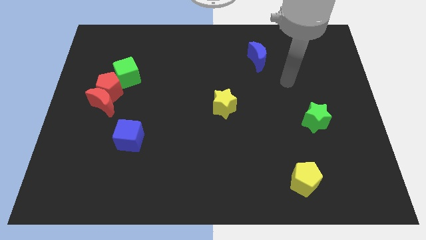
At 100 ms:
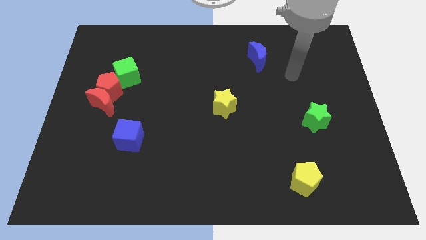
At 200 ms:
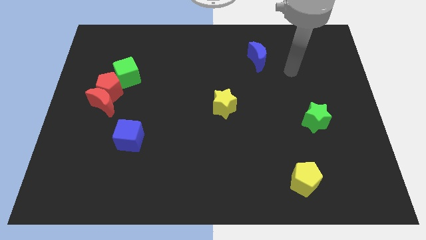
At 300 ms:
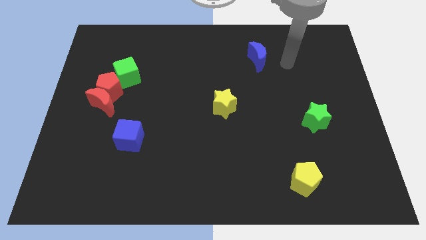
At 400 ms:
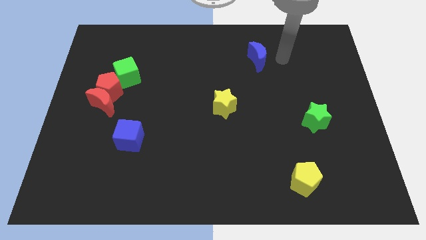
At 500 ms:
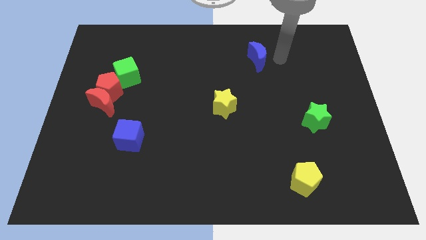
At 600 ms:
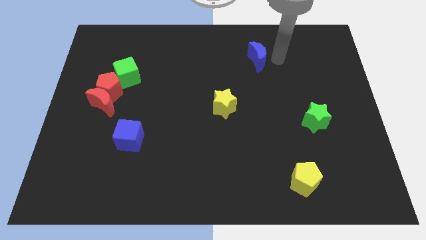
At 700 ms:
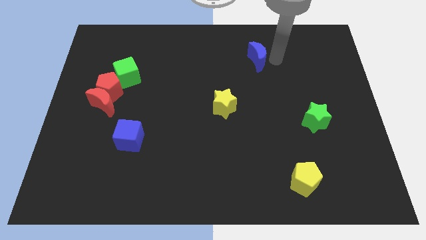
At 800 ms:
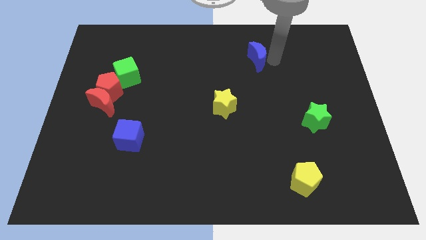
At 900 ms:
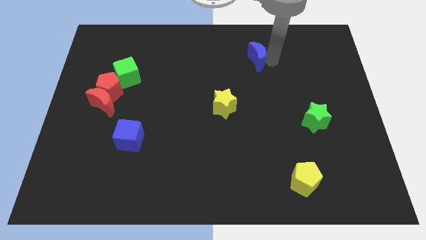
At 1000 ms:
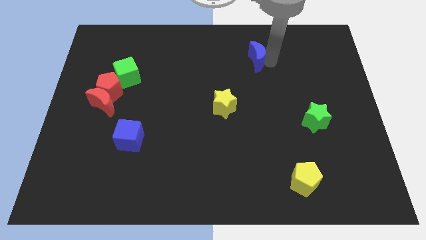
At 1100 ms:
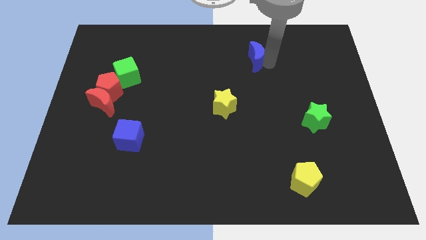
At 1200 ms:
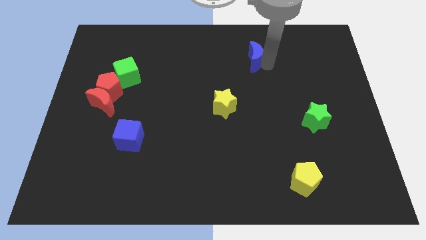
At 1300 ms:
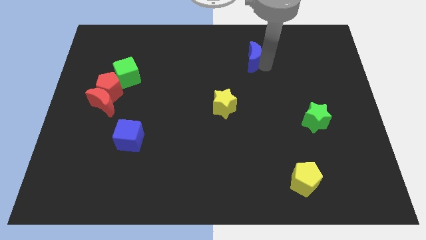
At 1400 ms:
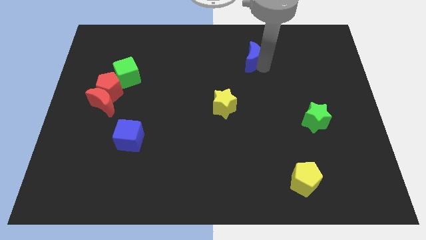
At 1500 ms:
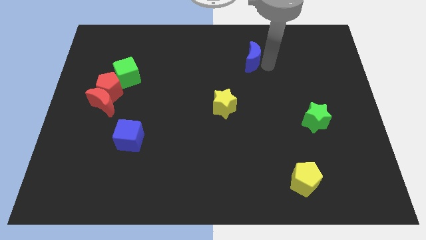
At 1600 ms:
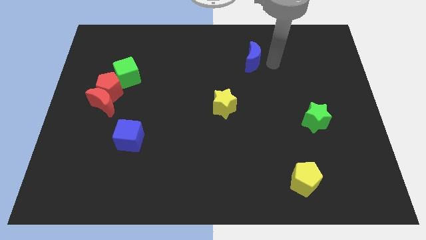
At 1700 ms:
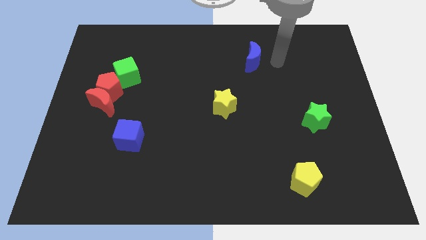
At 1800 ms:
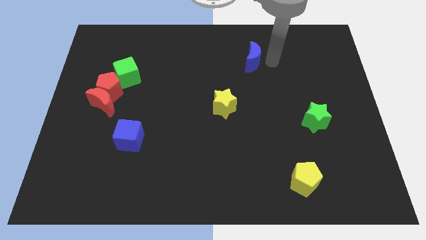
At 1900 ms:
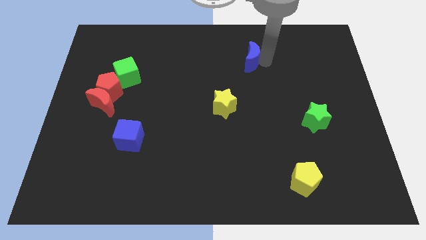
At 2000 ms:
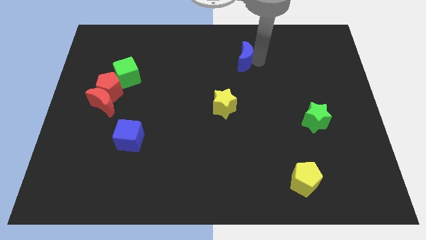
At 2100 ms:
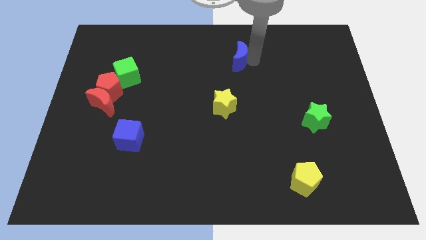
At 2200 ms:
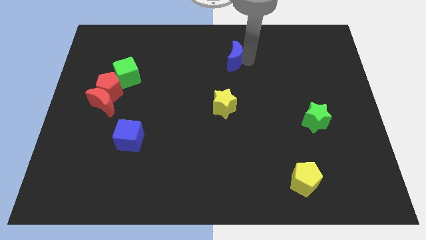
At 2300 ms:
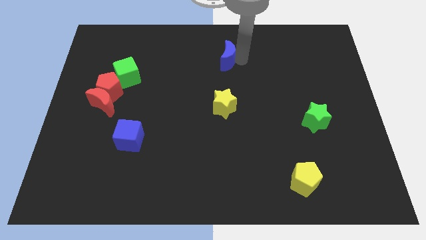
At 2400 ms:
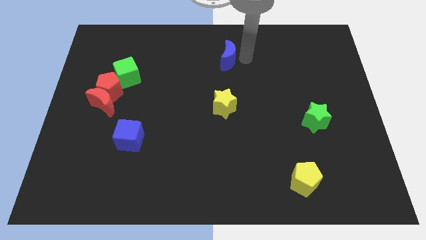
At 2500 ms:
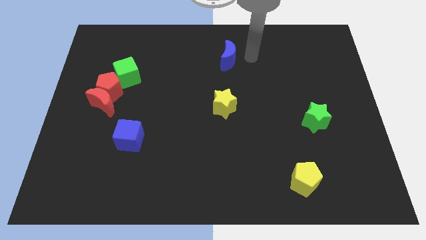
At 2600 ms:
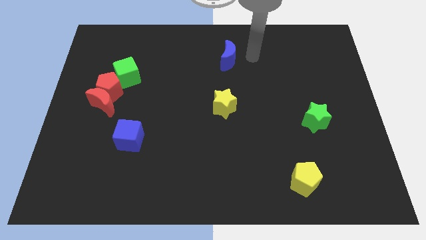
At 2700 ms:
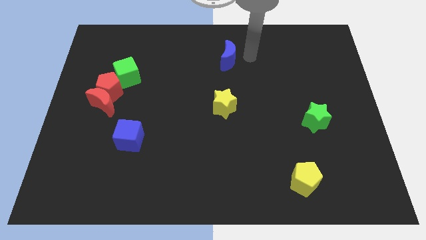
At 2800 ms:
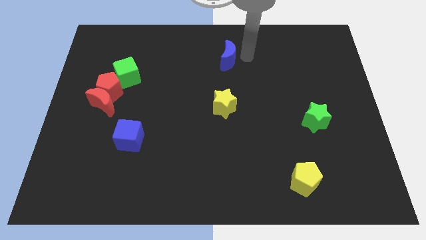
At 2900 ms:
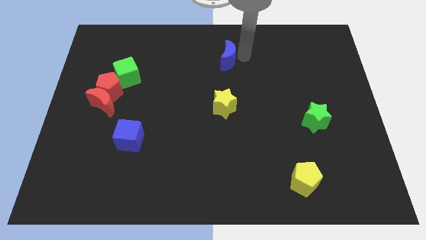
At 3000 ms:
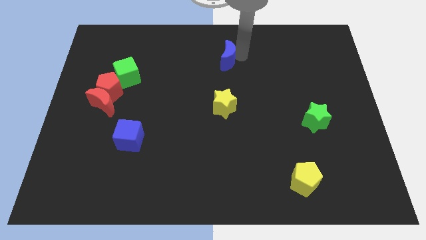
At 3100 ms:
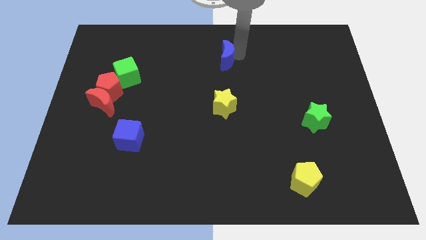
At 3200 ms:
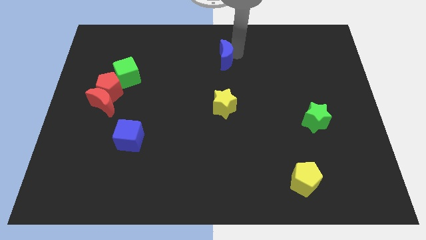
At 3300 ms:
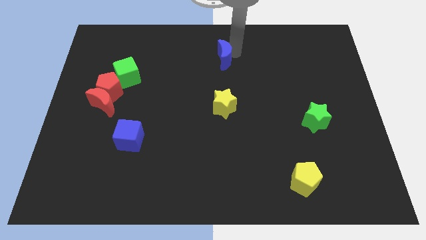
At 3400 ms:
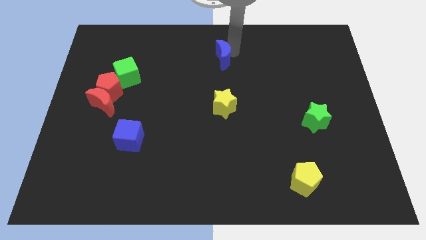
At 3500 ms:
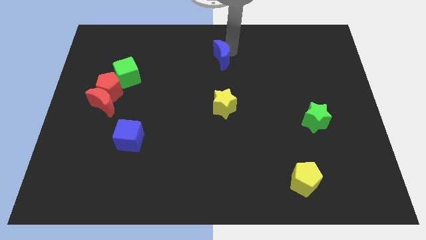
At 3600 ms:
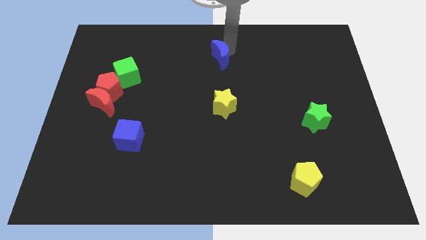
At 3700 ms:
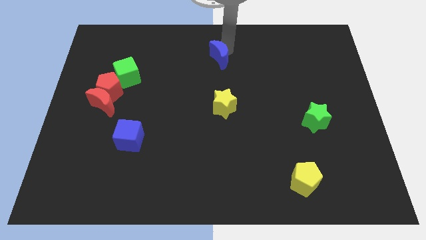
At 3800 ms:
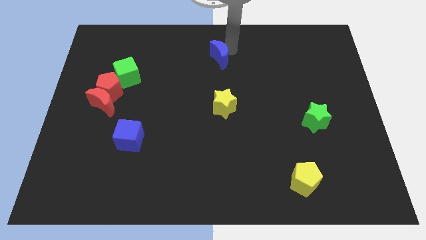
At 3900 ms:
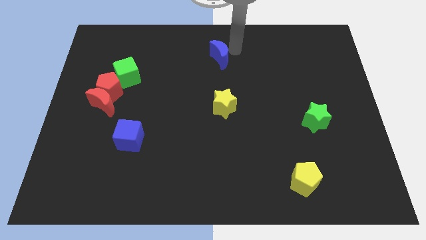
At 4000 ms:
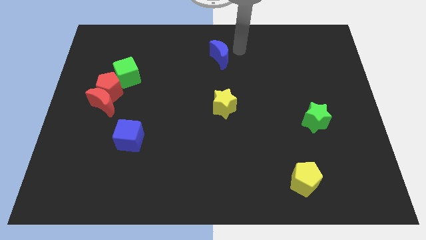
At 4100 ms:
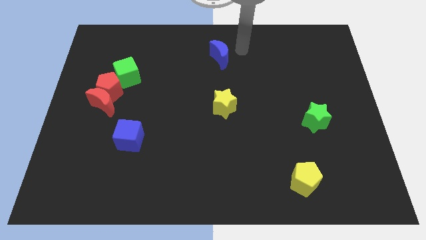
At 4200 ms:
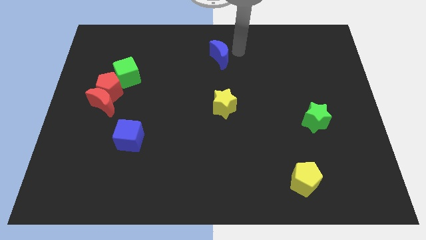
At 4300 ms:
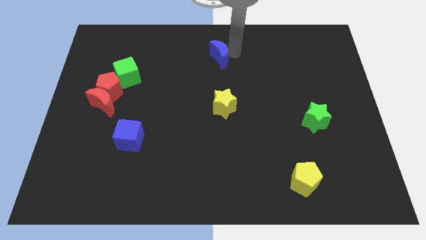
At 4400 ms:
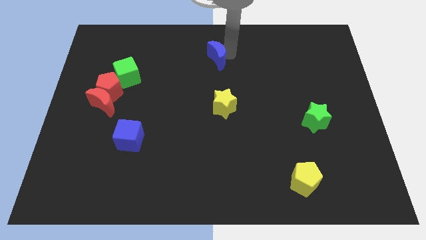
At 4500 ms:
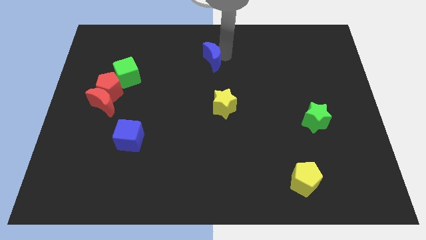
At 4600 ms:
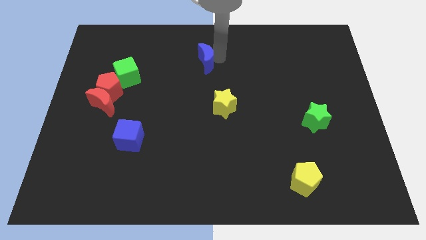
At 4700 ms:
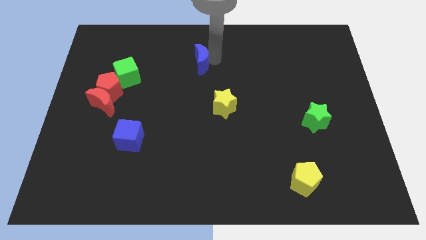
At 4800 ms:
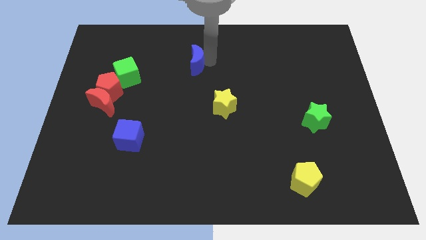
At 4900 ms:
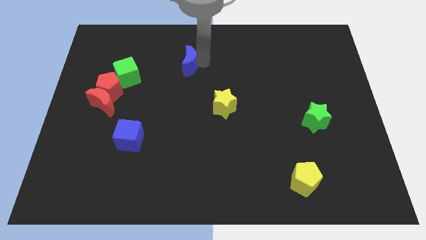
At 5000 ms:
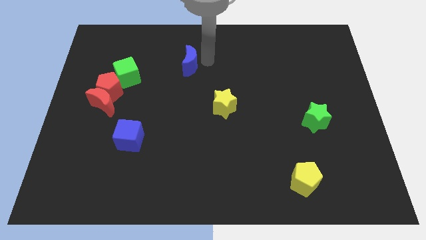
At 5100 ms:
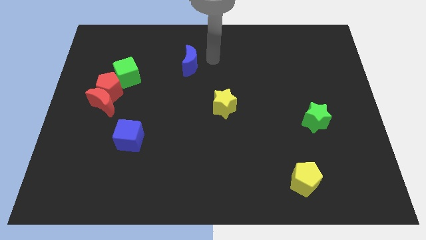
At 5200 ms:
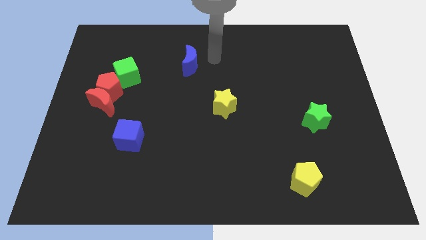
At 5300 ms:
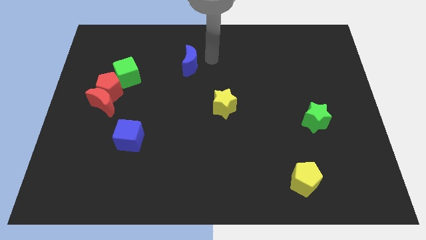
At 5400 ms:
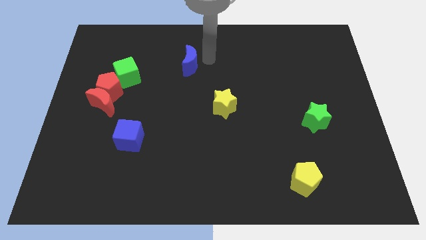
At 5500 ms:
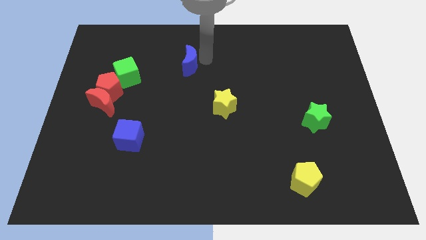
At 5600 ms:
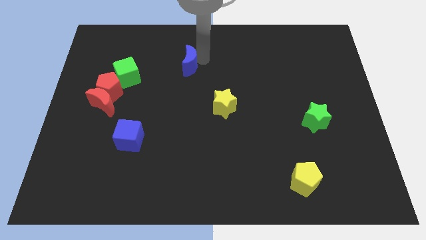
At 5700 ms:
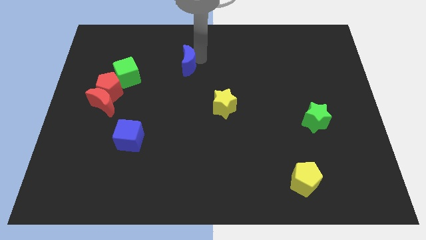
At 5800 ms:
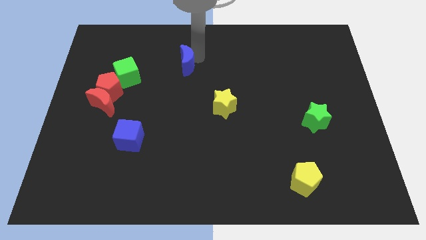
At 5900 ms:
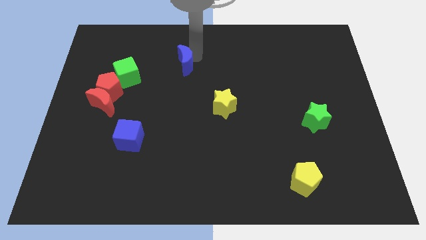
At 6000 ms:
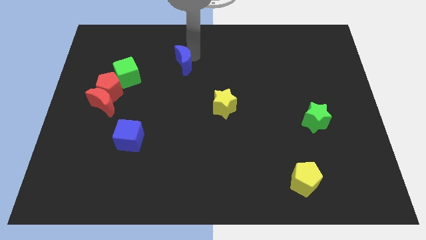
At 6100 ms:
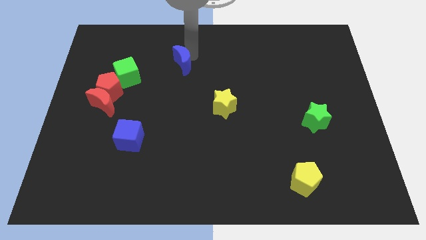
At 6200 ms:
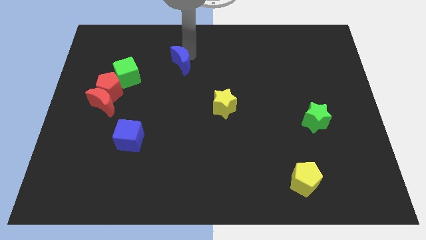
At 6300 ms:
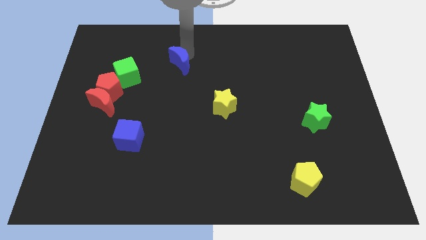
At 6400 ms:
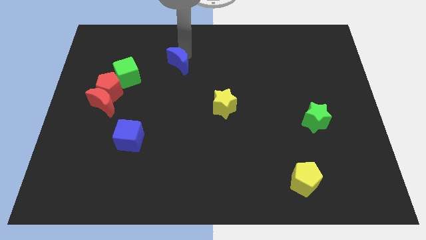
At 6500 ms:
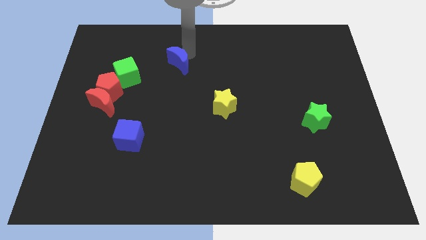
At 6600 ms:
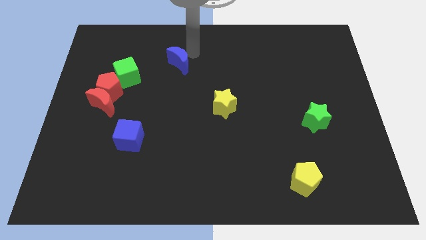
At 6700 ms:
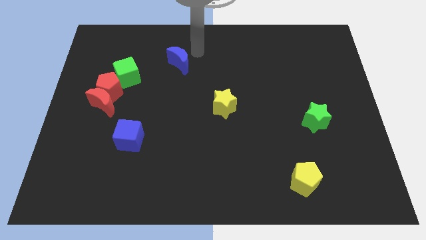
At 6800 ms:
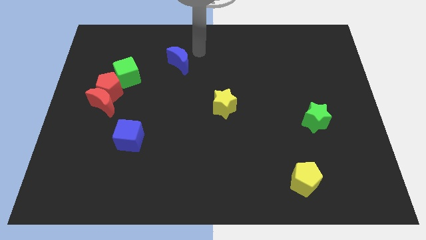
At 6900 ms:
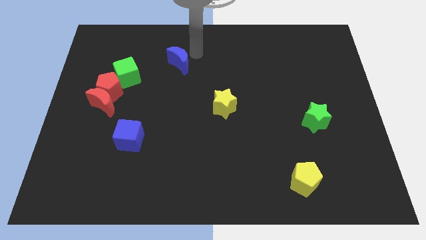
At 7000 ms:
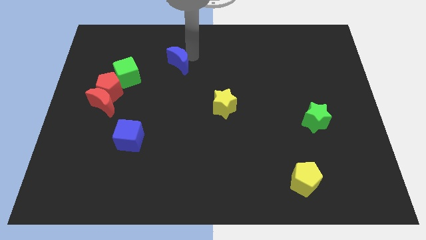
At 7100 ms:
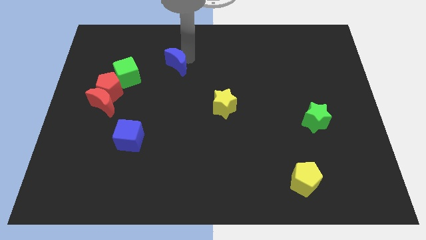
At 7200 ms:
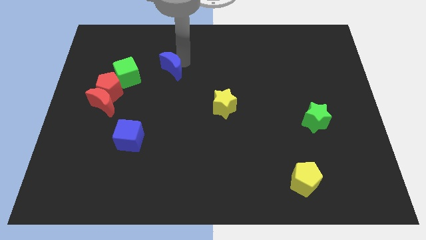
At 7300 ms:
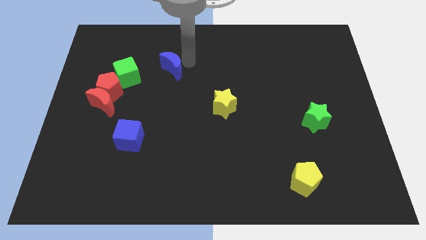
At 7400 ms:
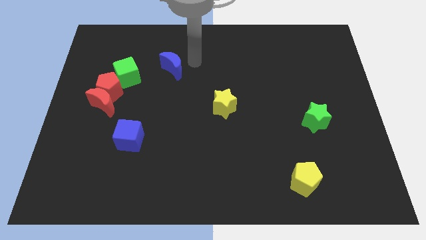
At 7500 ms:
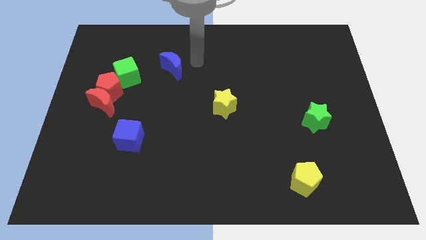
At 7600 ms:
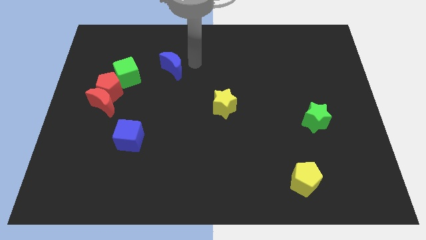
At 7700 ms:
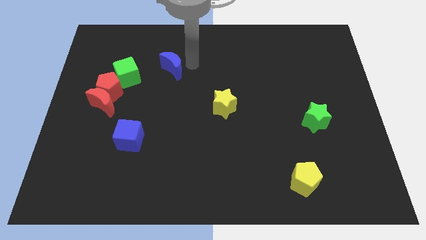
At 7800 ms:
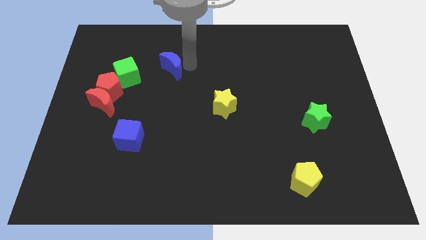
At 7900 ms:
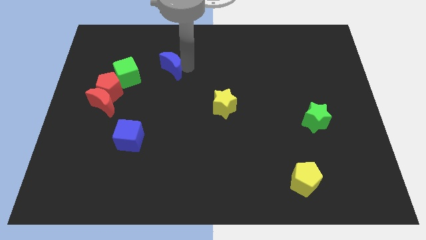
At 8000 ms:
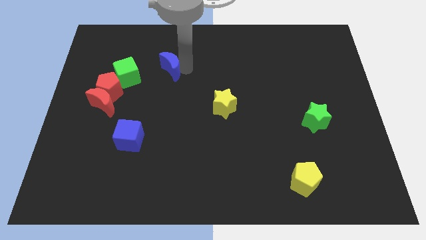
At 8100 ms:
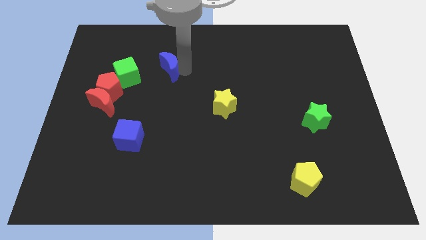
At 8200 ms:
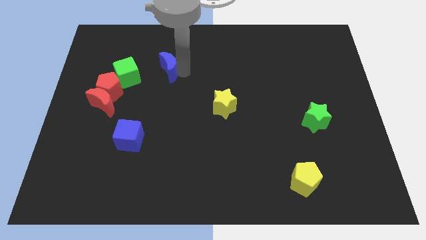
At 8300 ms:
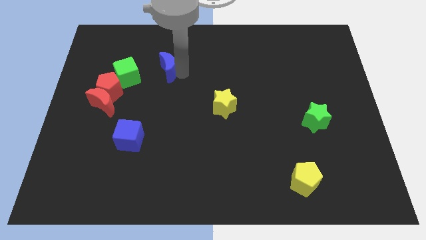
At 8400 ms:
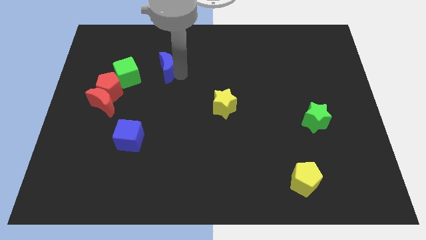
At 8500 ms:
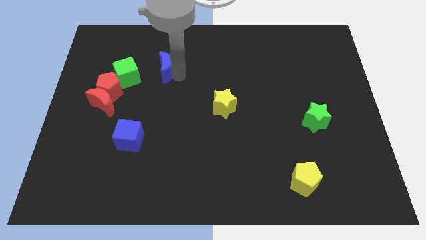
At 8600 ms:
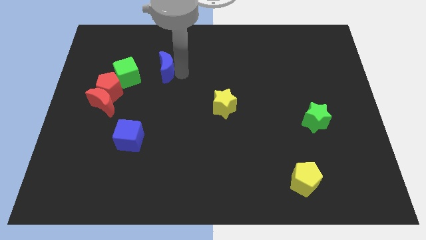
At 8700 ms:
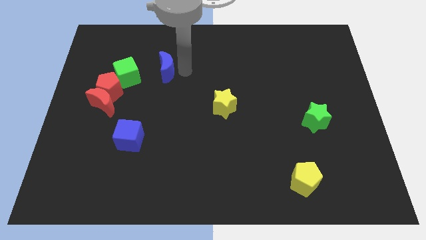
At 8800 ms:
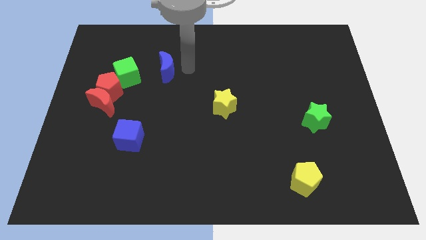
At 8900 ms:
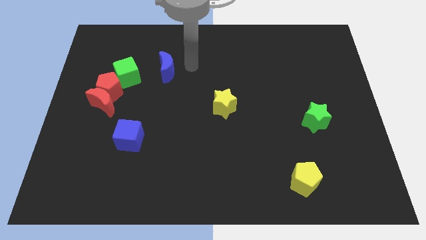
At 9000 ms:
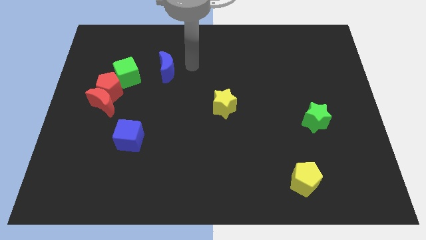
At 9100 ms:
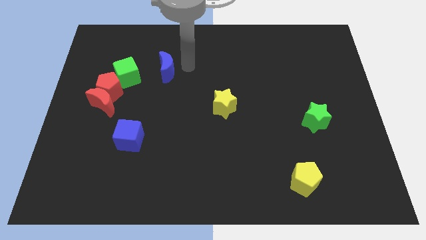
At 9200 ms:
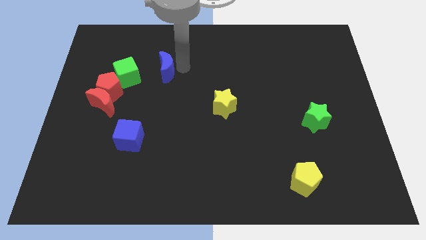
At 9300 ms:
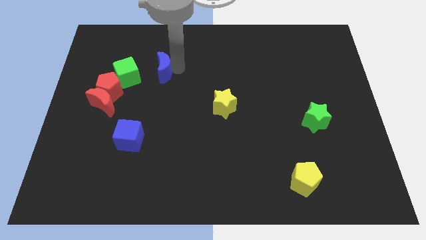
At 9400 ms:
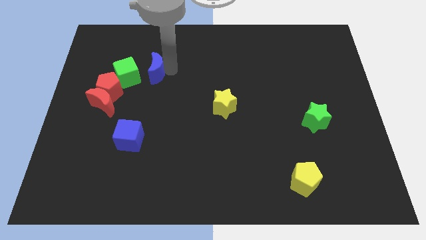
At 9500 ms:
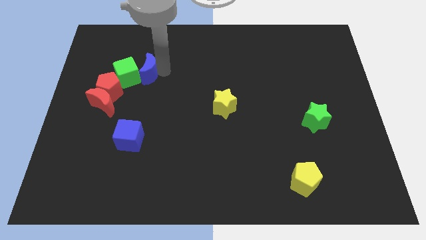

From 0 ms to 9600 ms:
slide the blue moon close to the green cube
